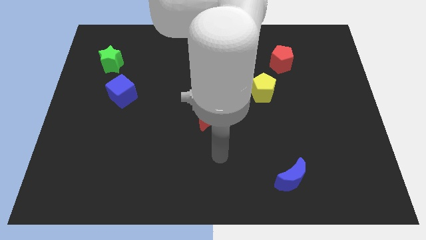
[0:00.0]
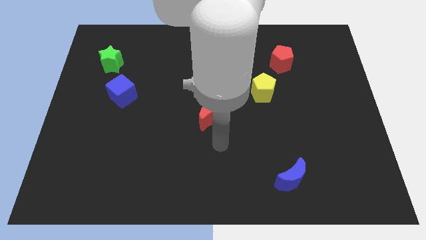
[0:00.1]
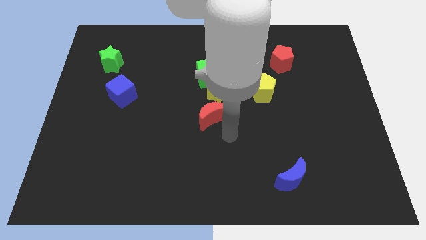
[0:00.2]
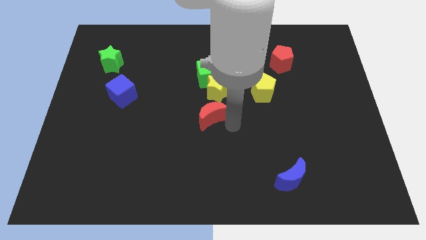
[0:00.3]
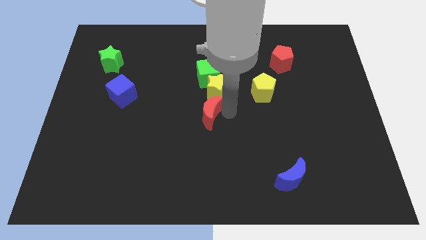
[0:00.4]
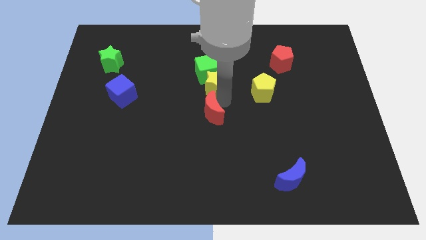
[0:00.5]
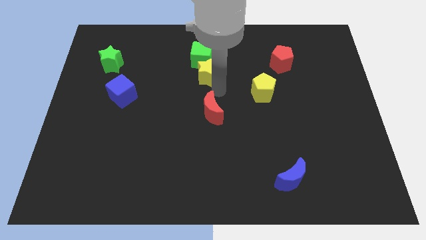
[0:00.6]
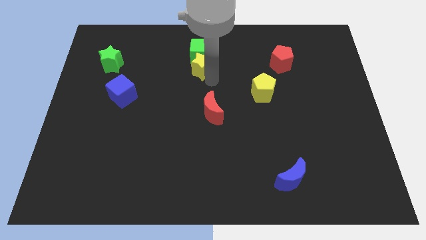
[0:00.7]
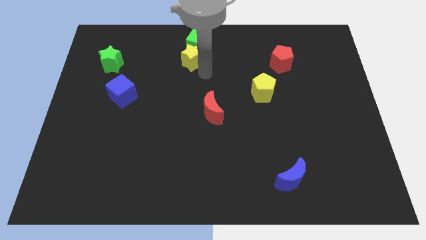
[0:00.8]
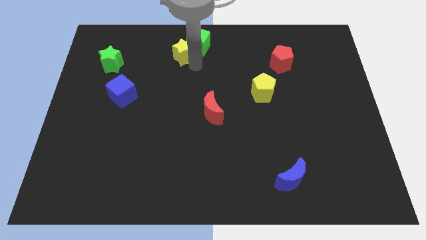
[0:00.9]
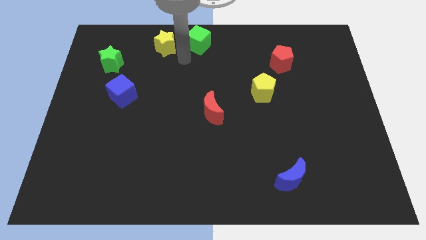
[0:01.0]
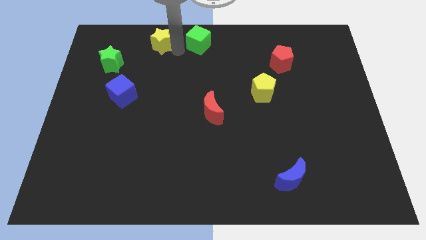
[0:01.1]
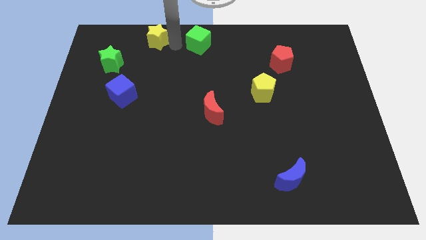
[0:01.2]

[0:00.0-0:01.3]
pull the green cube apart from the yellow star

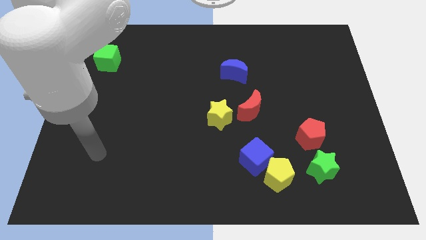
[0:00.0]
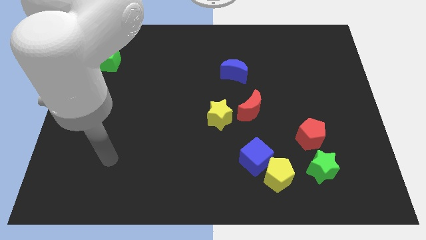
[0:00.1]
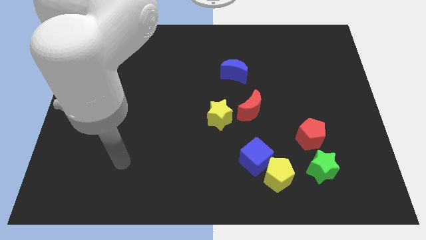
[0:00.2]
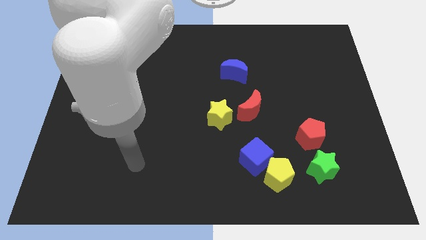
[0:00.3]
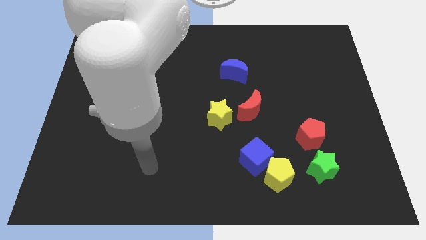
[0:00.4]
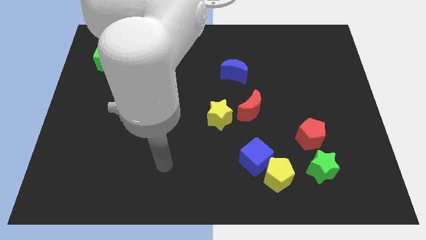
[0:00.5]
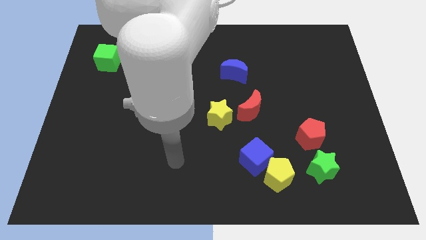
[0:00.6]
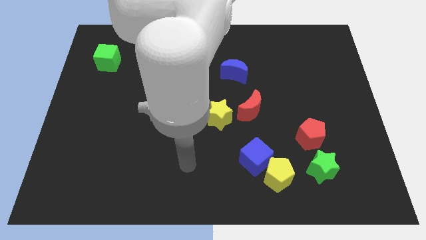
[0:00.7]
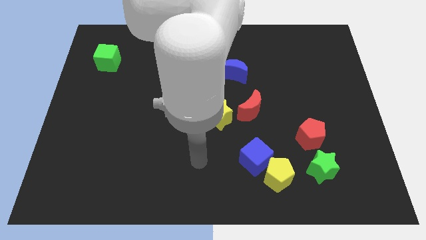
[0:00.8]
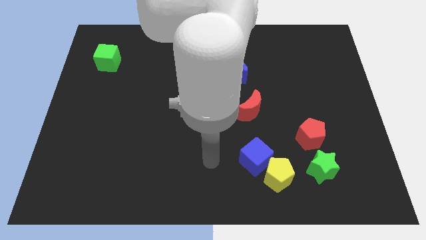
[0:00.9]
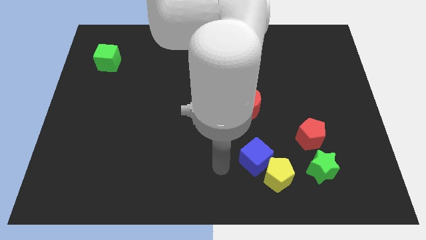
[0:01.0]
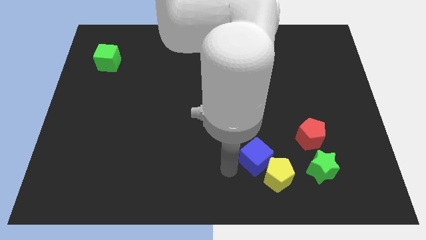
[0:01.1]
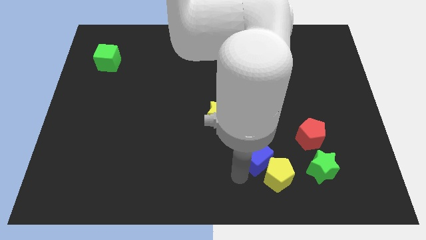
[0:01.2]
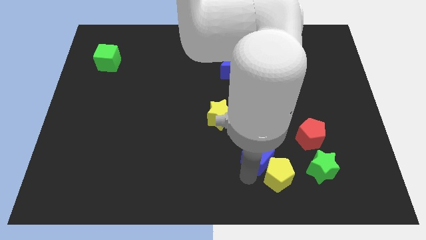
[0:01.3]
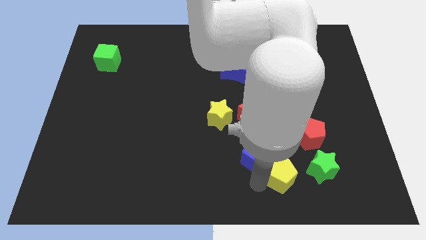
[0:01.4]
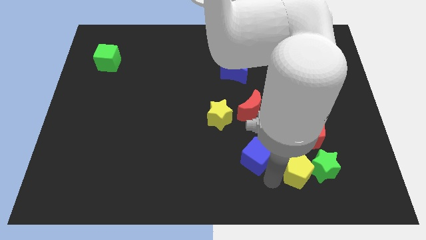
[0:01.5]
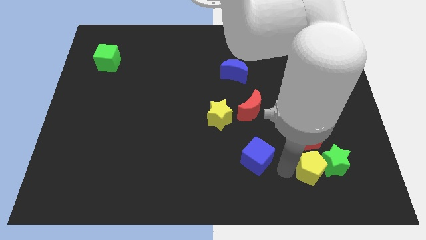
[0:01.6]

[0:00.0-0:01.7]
separate the blue cube from the yellow pentagon

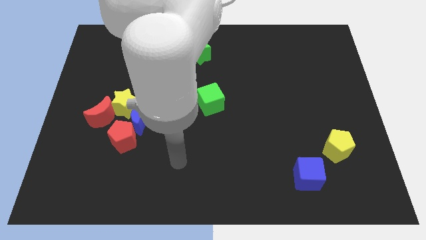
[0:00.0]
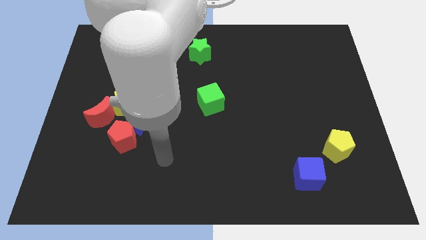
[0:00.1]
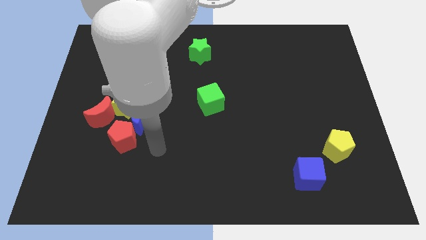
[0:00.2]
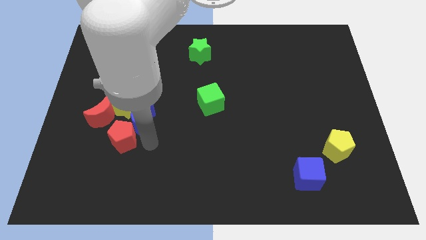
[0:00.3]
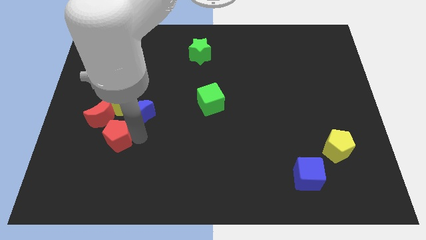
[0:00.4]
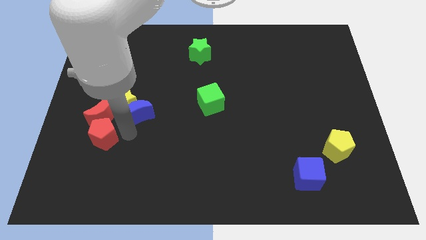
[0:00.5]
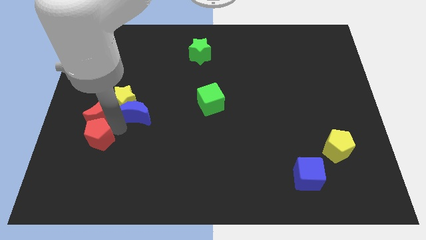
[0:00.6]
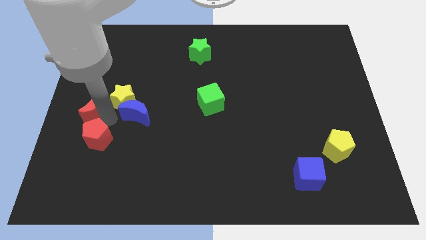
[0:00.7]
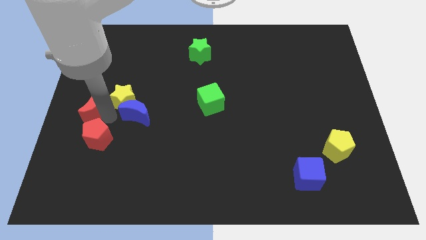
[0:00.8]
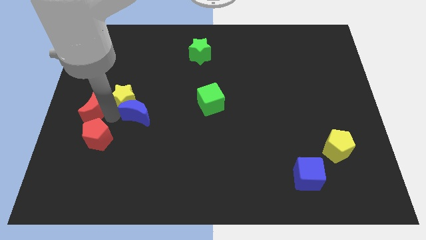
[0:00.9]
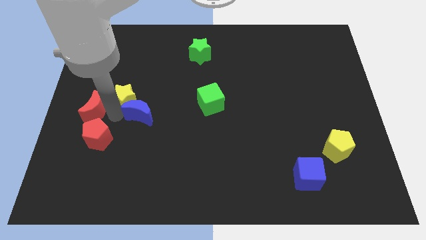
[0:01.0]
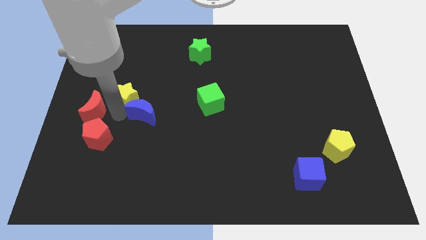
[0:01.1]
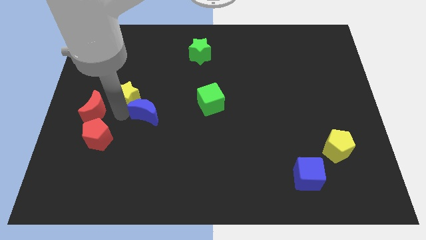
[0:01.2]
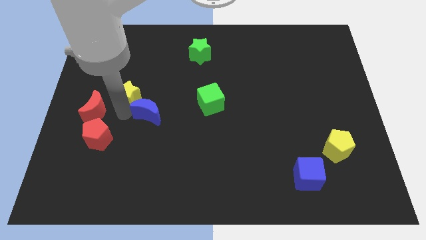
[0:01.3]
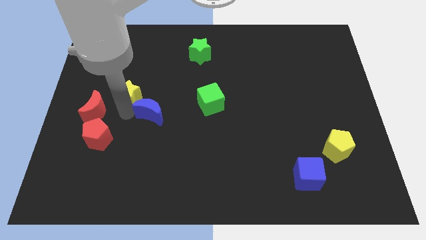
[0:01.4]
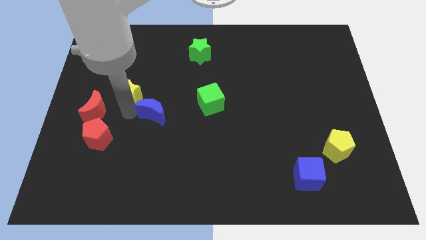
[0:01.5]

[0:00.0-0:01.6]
move the blue moon away from the clump

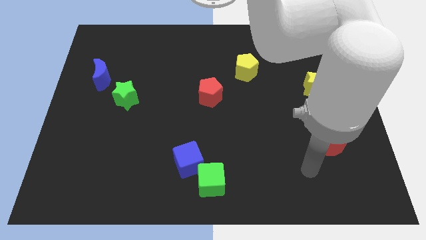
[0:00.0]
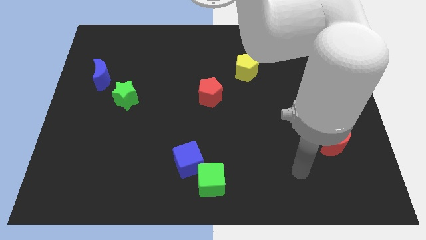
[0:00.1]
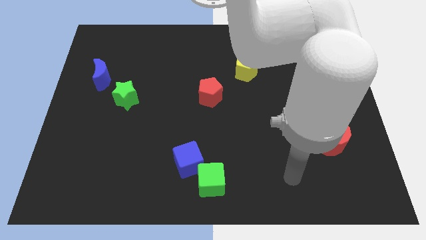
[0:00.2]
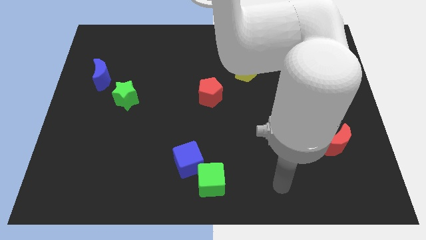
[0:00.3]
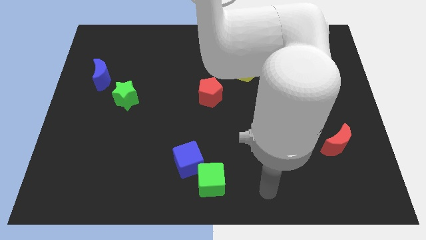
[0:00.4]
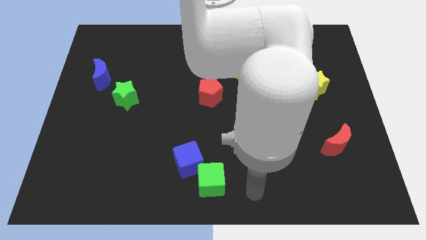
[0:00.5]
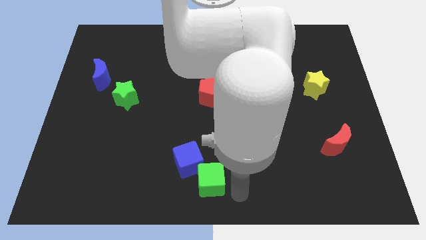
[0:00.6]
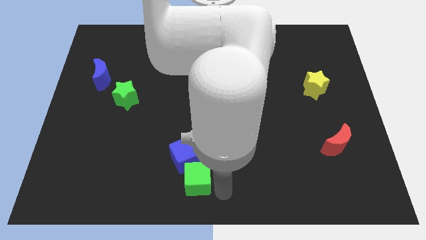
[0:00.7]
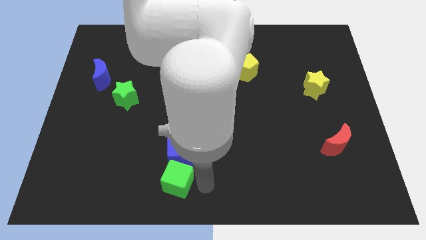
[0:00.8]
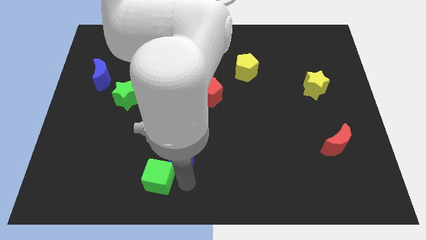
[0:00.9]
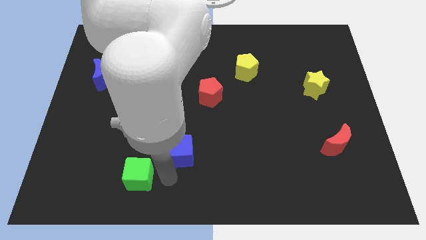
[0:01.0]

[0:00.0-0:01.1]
move the blue cube away from the green cube

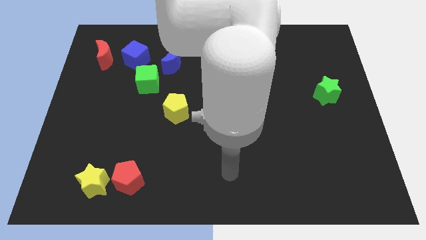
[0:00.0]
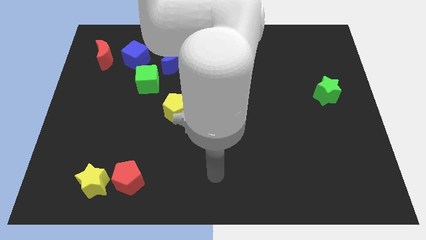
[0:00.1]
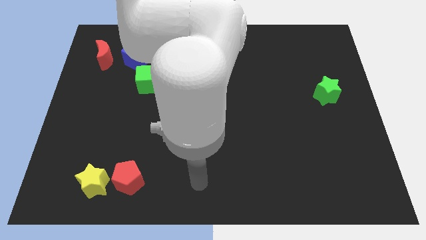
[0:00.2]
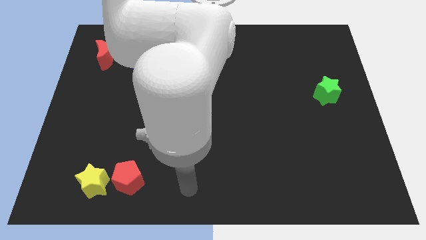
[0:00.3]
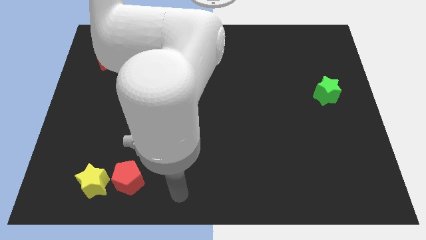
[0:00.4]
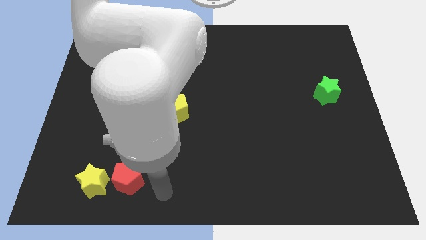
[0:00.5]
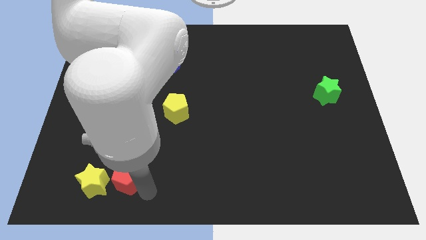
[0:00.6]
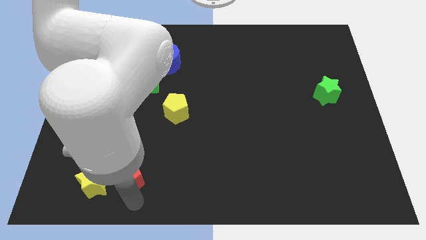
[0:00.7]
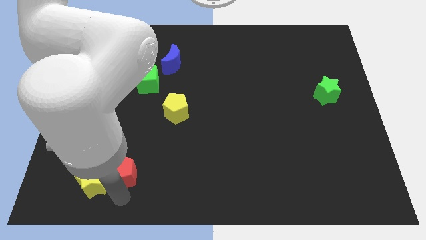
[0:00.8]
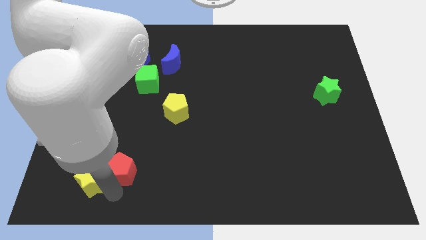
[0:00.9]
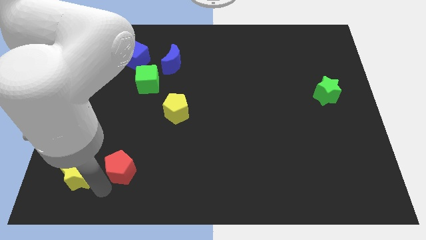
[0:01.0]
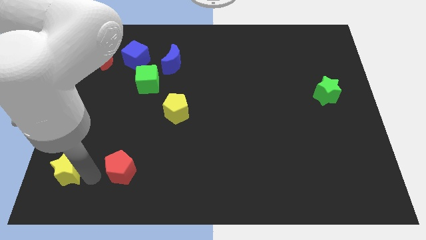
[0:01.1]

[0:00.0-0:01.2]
move the red pentagon away from the yellow star

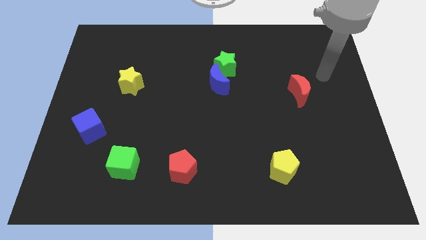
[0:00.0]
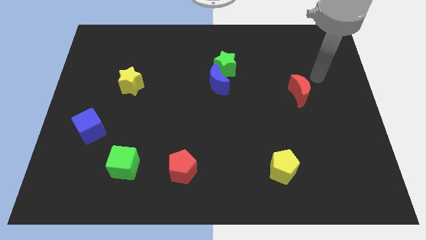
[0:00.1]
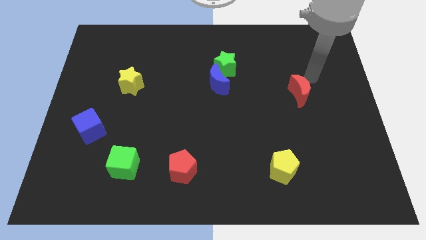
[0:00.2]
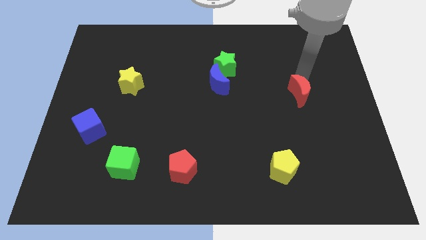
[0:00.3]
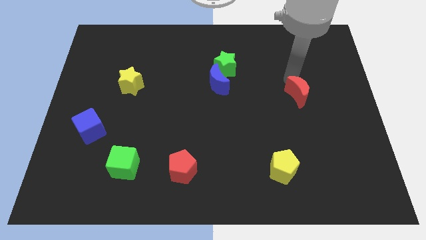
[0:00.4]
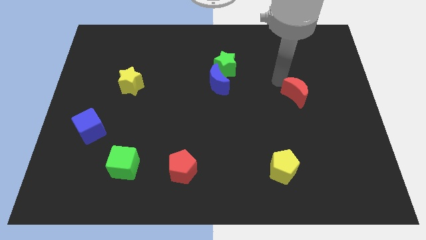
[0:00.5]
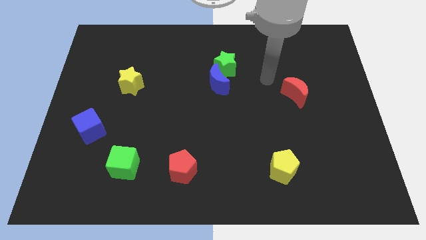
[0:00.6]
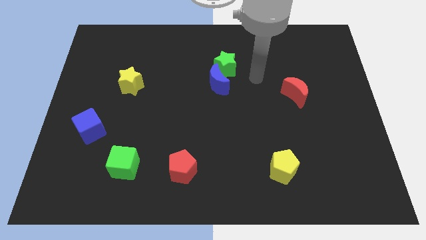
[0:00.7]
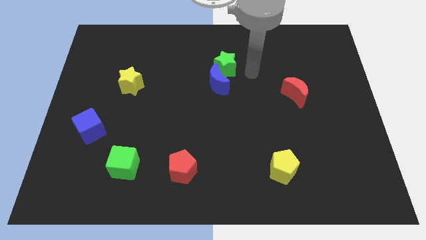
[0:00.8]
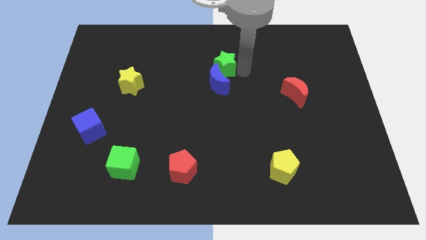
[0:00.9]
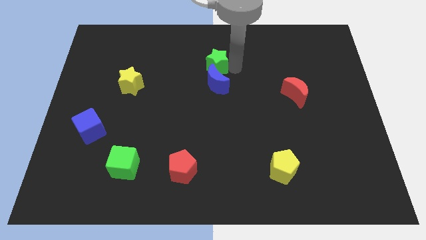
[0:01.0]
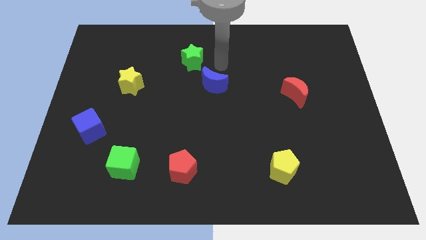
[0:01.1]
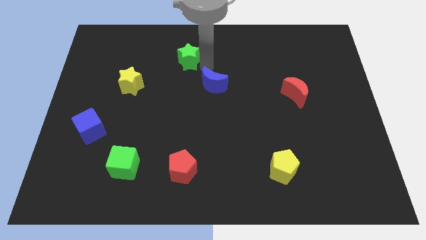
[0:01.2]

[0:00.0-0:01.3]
pull the blue moon apart from the green star

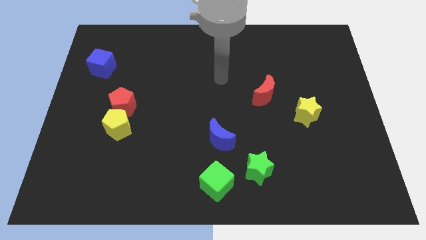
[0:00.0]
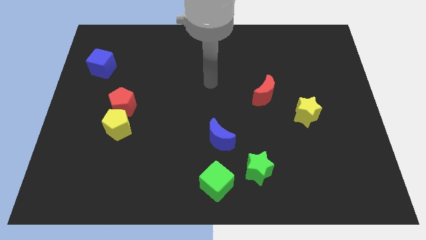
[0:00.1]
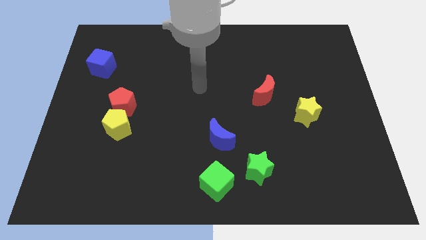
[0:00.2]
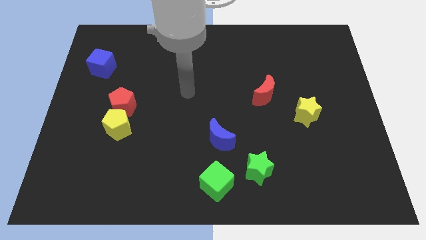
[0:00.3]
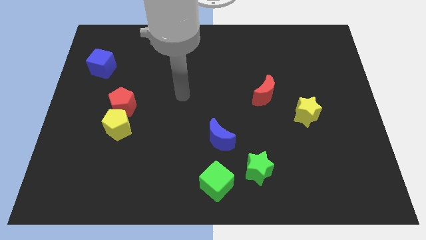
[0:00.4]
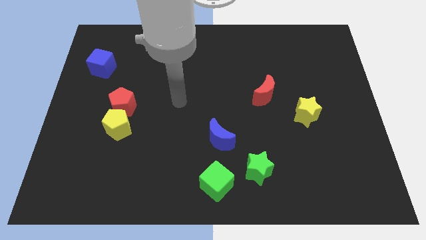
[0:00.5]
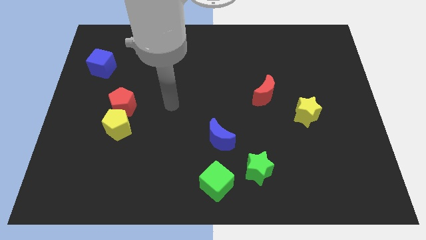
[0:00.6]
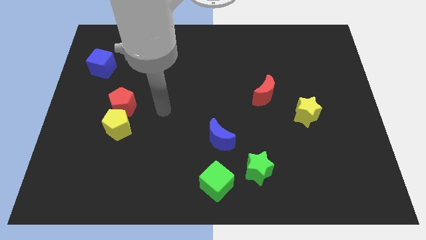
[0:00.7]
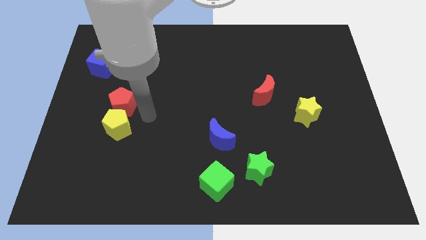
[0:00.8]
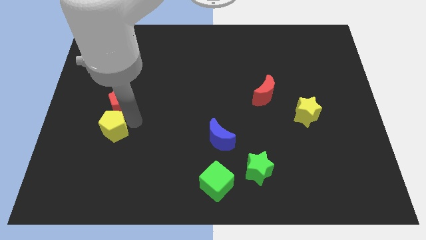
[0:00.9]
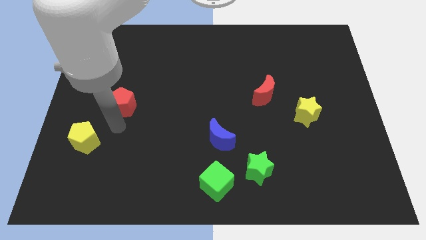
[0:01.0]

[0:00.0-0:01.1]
pull the red pentagon apart from the yellow pentagon
